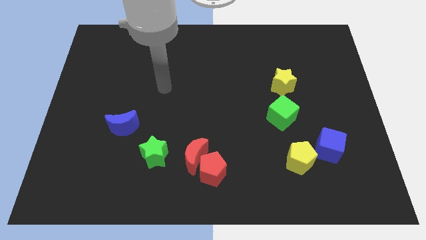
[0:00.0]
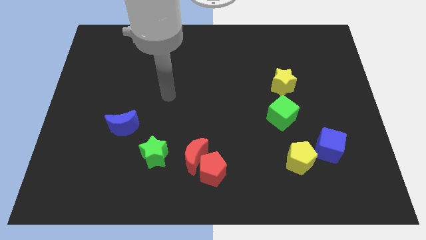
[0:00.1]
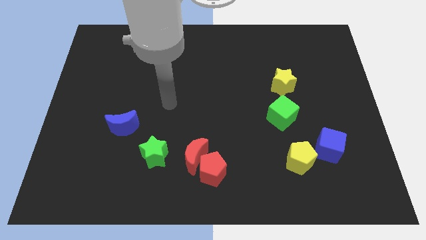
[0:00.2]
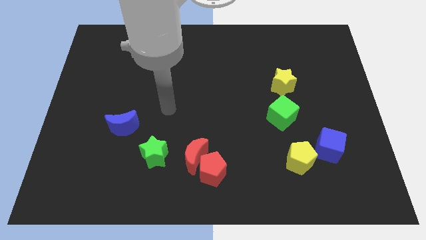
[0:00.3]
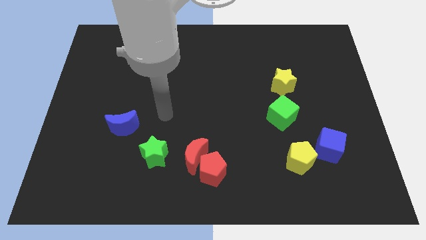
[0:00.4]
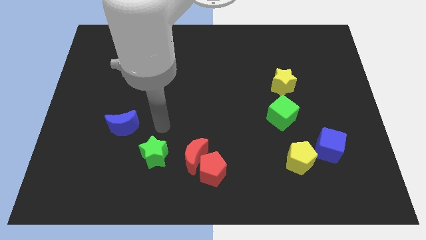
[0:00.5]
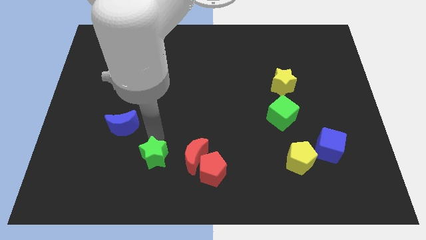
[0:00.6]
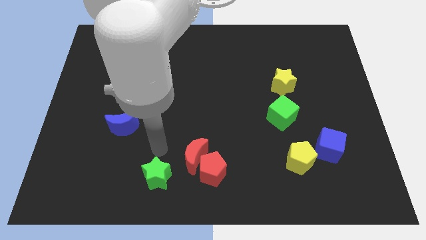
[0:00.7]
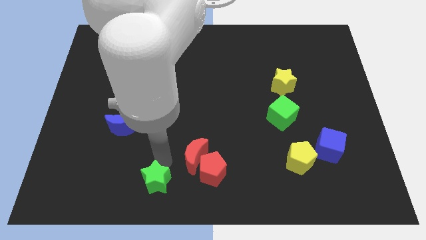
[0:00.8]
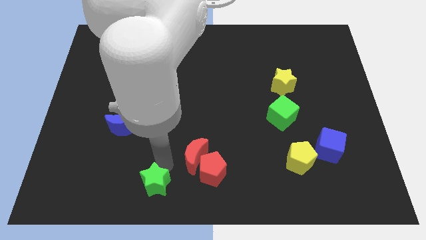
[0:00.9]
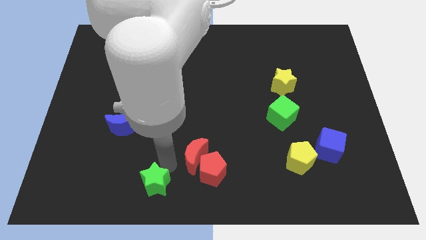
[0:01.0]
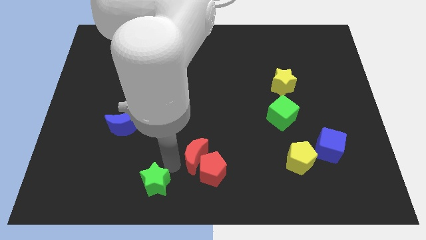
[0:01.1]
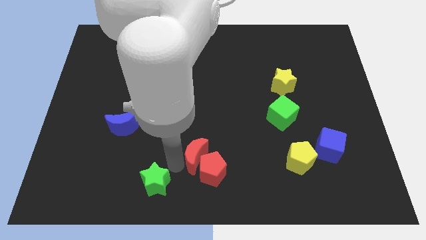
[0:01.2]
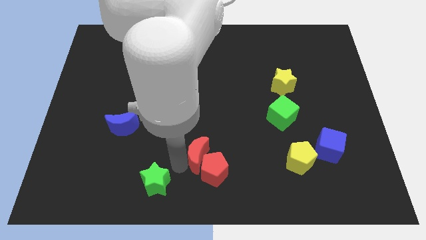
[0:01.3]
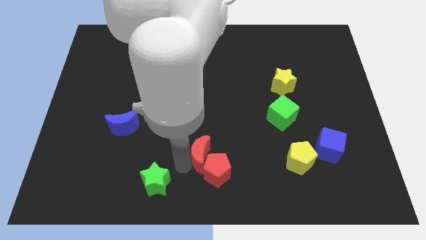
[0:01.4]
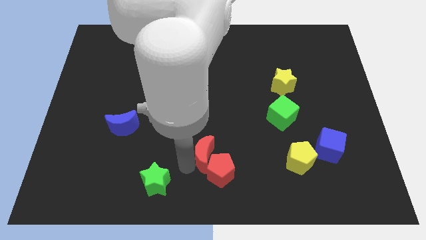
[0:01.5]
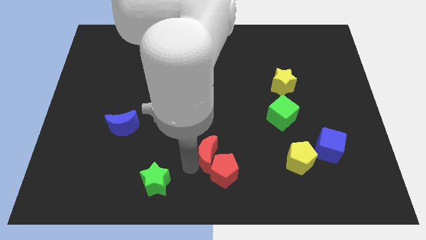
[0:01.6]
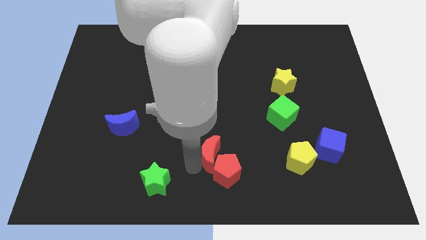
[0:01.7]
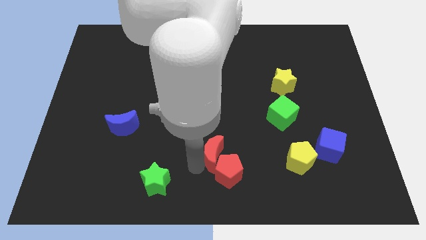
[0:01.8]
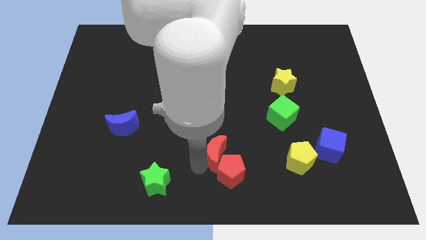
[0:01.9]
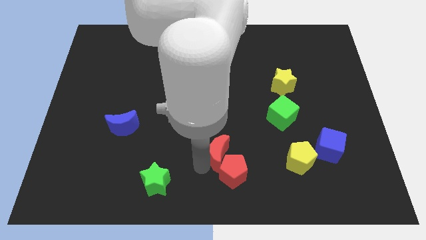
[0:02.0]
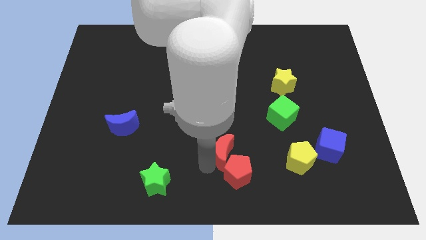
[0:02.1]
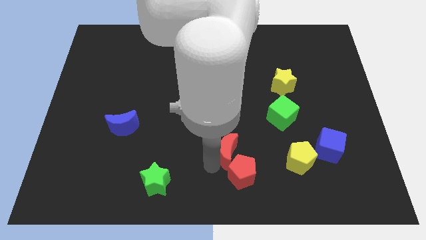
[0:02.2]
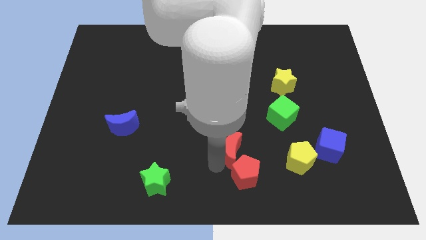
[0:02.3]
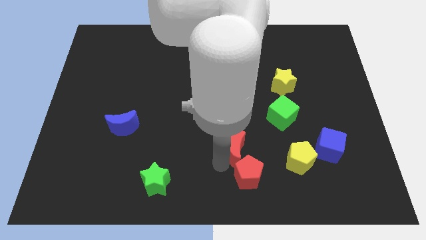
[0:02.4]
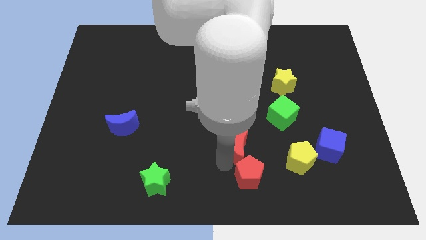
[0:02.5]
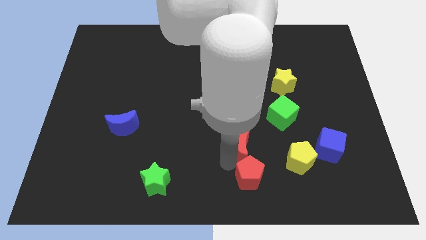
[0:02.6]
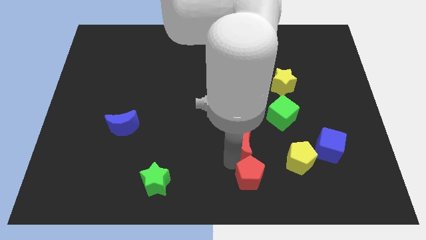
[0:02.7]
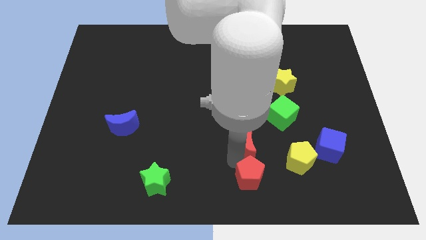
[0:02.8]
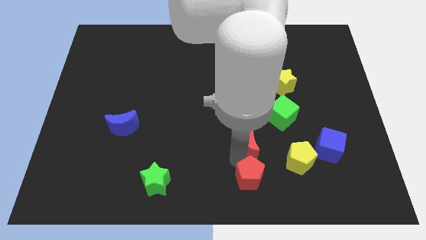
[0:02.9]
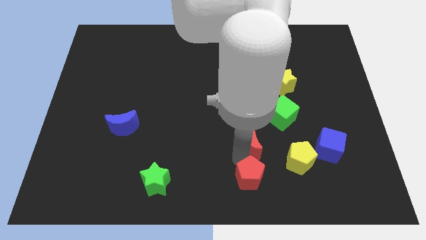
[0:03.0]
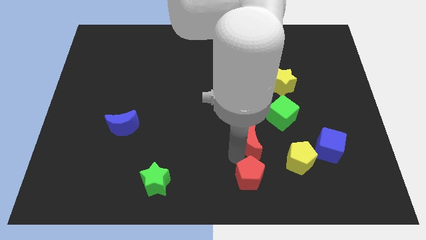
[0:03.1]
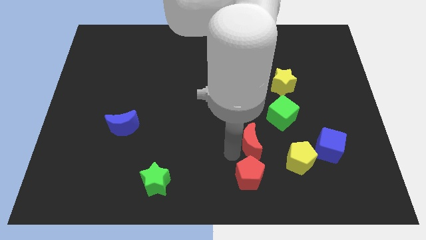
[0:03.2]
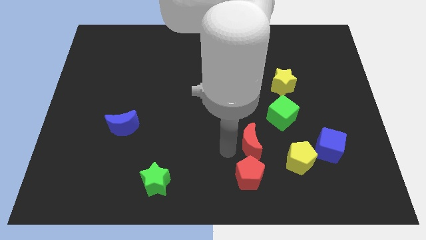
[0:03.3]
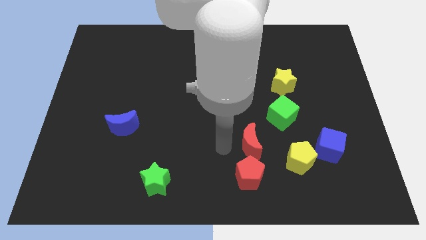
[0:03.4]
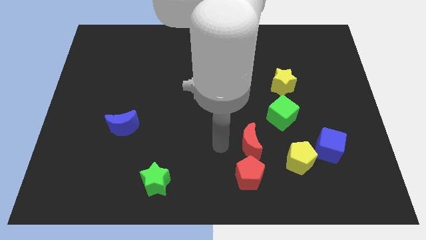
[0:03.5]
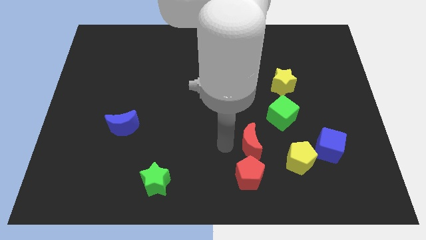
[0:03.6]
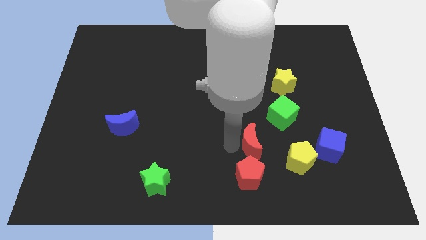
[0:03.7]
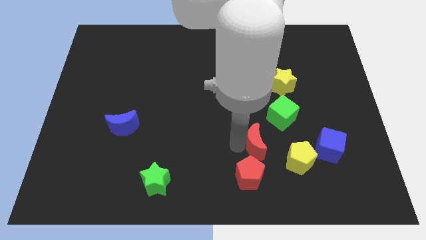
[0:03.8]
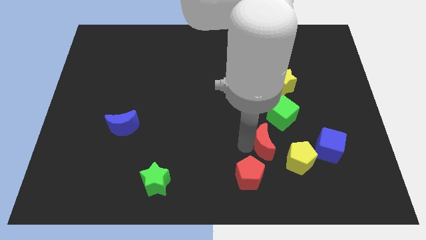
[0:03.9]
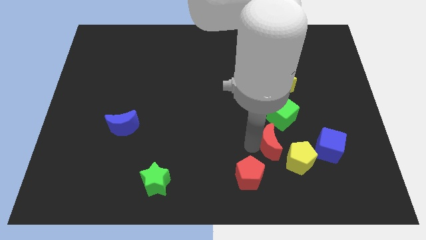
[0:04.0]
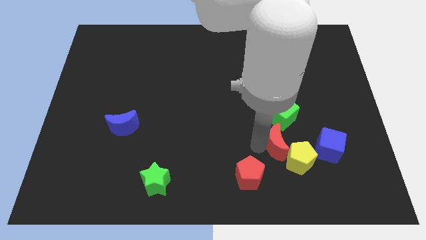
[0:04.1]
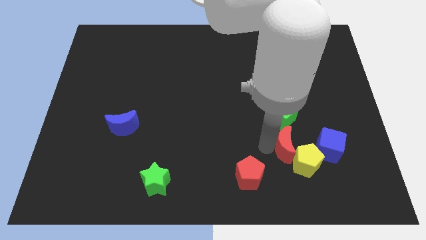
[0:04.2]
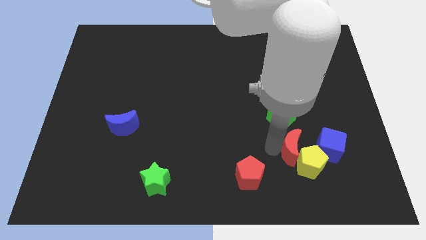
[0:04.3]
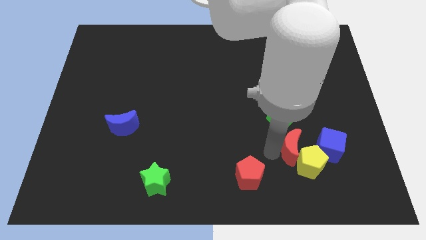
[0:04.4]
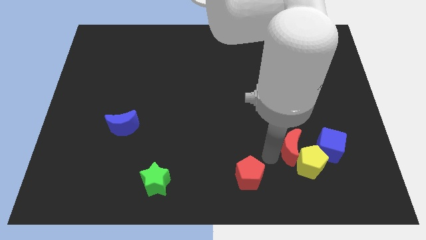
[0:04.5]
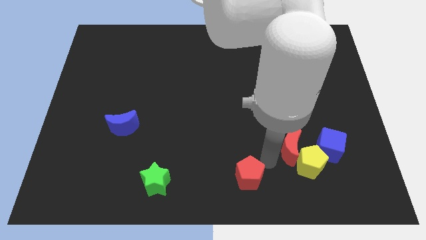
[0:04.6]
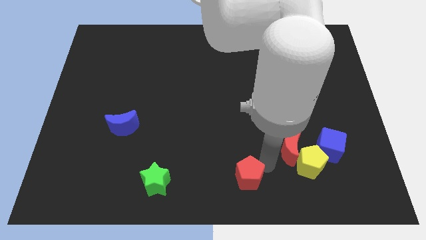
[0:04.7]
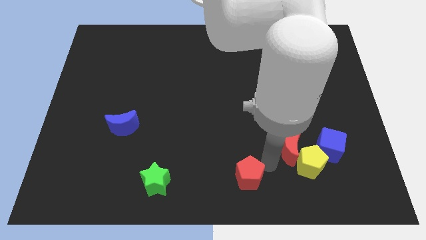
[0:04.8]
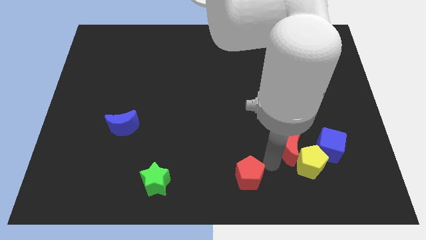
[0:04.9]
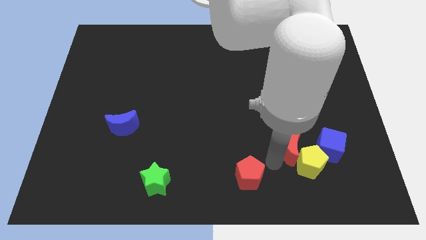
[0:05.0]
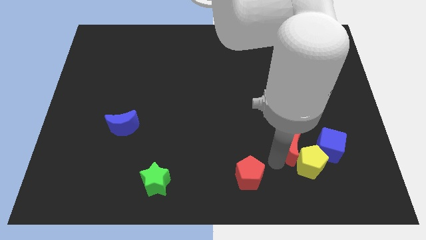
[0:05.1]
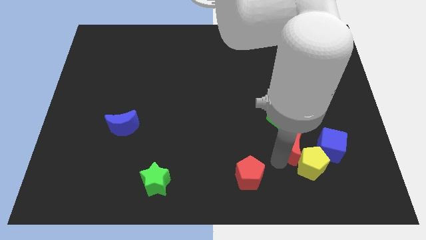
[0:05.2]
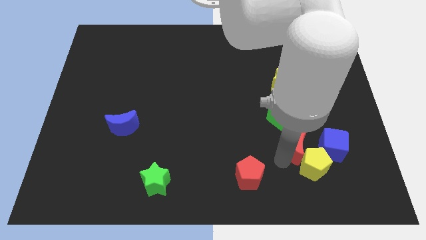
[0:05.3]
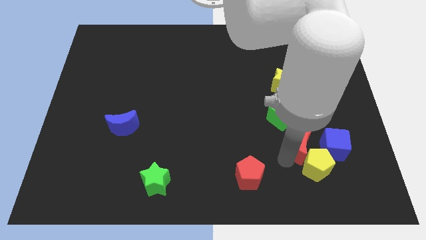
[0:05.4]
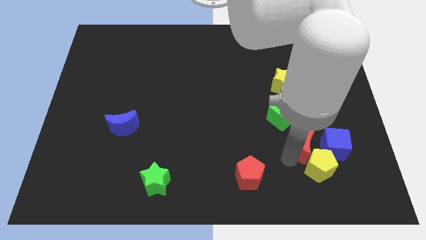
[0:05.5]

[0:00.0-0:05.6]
put the red moon diagonally up and to the left of the blue cube
